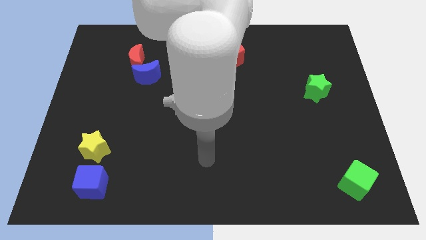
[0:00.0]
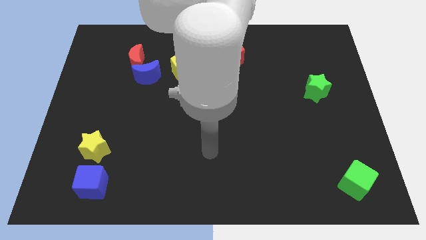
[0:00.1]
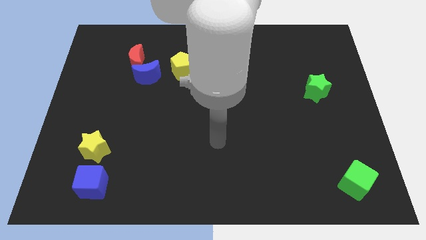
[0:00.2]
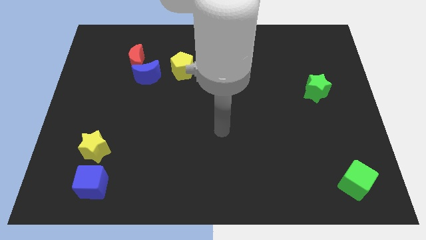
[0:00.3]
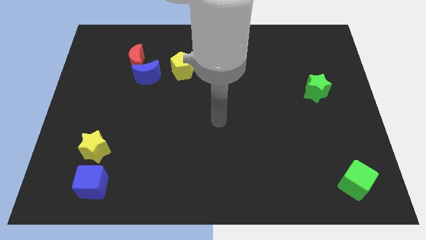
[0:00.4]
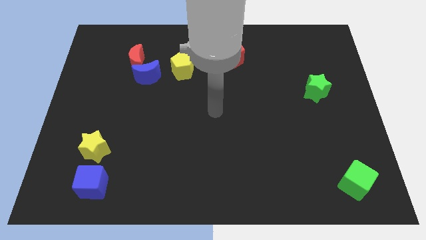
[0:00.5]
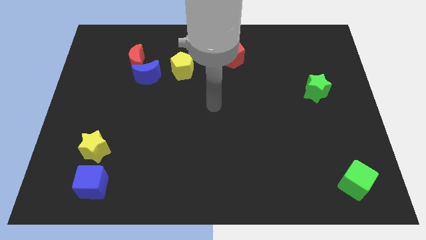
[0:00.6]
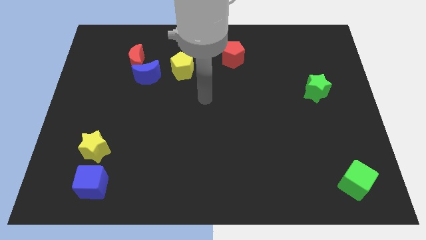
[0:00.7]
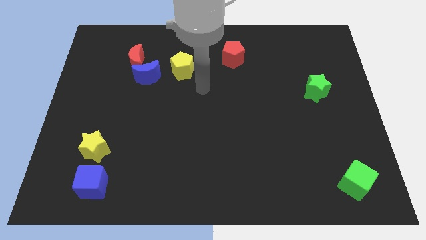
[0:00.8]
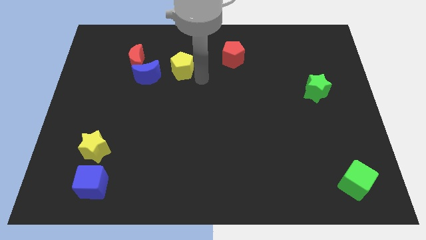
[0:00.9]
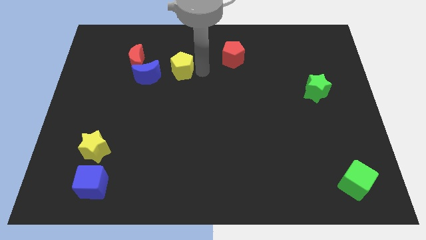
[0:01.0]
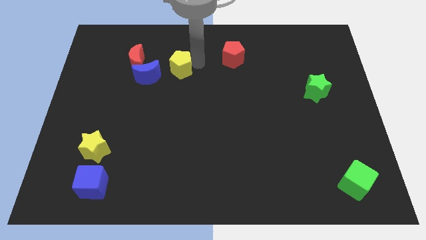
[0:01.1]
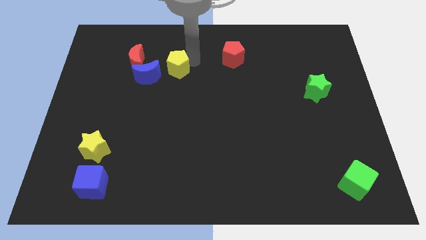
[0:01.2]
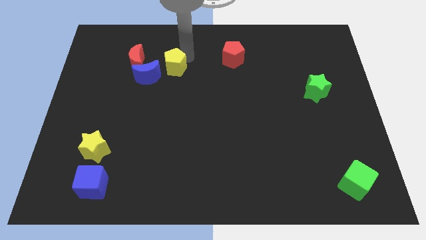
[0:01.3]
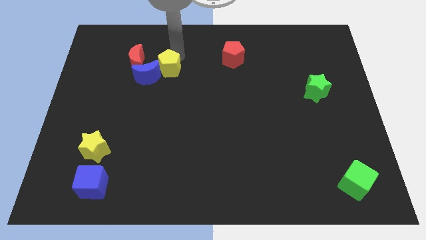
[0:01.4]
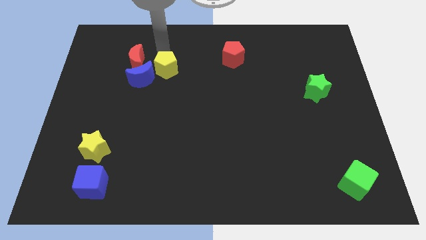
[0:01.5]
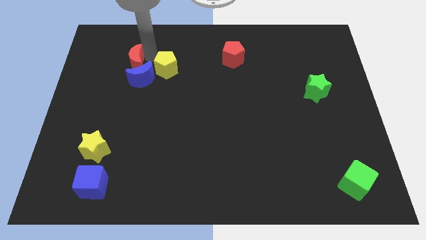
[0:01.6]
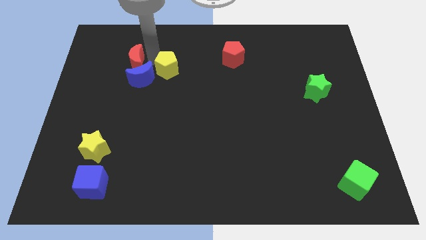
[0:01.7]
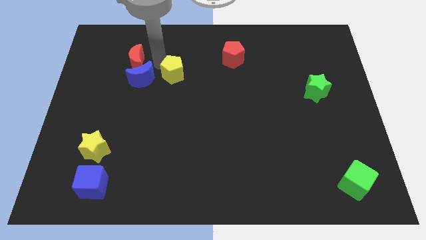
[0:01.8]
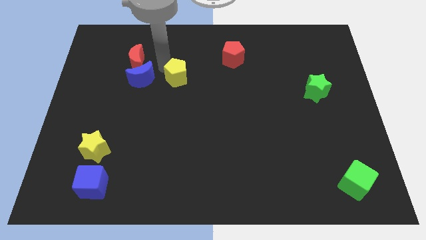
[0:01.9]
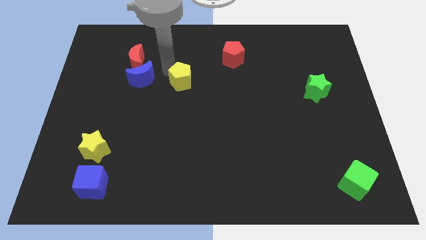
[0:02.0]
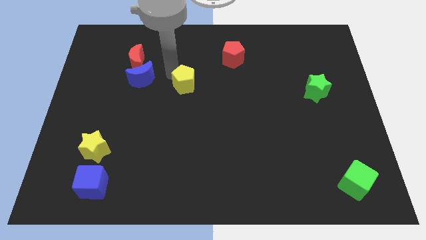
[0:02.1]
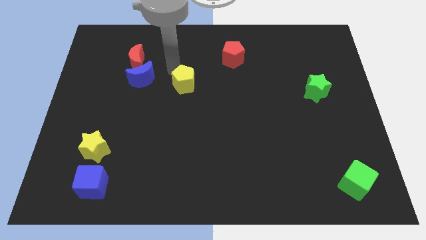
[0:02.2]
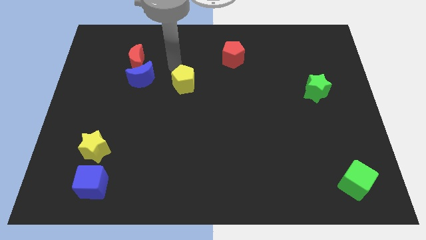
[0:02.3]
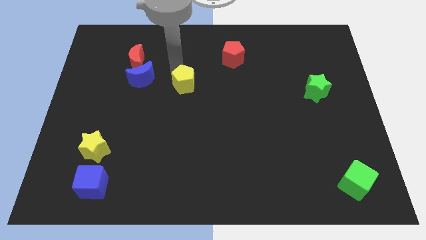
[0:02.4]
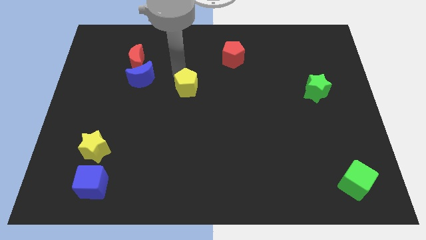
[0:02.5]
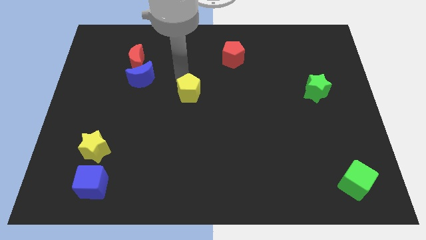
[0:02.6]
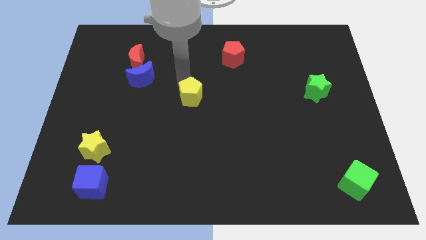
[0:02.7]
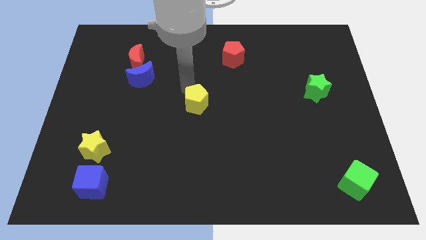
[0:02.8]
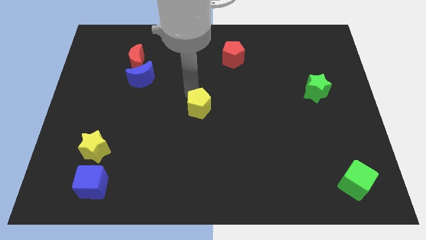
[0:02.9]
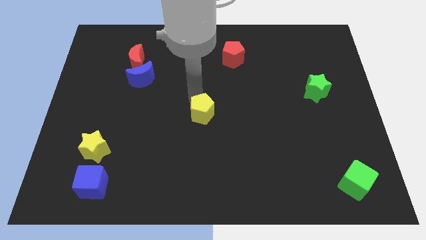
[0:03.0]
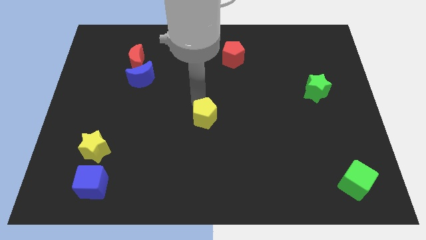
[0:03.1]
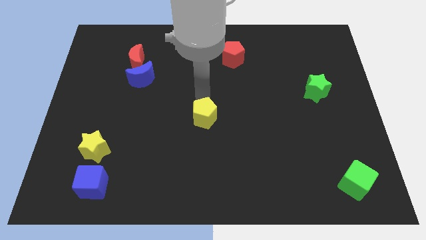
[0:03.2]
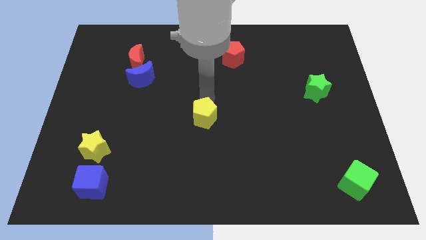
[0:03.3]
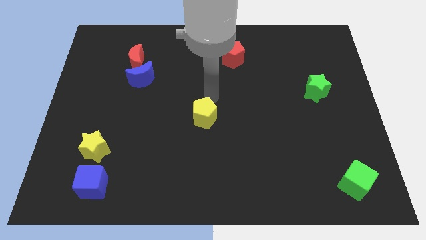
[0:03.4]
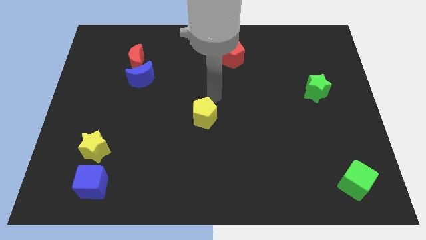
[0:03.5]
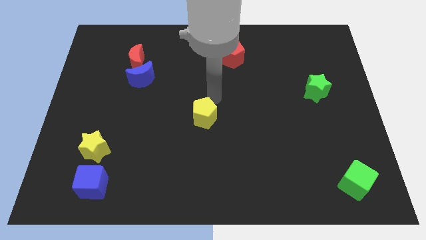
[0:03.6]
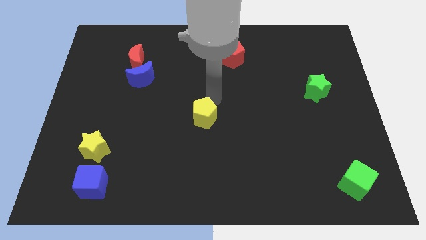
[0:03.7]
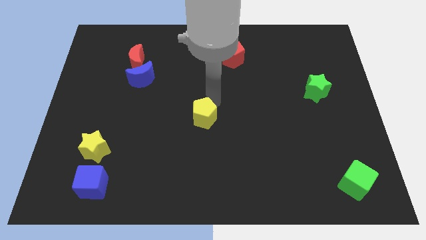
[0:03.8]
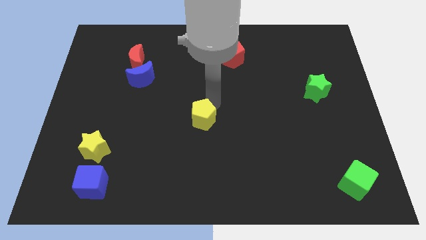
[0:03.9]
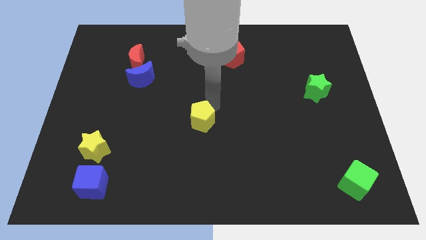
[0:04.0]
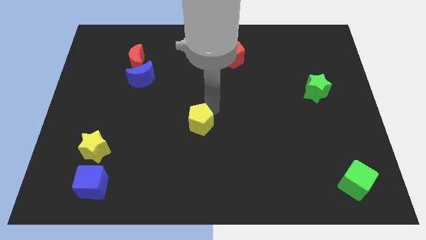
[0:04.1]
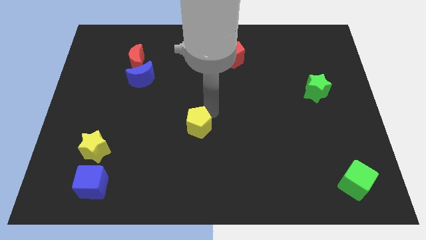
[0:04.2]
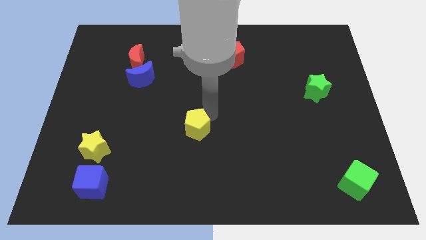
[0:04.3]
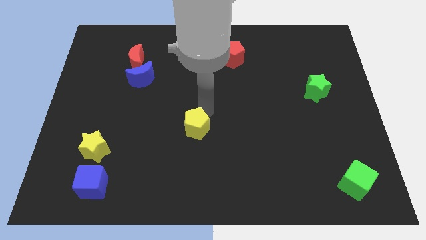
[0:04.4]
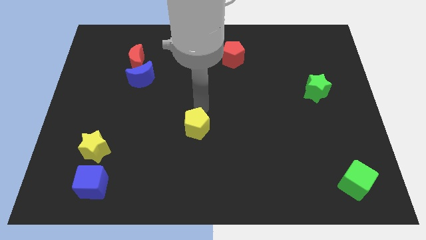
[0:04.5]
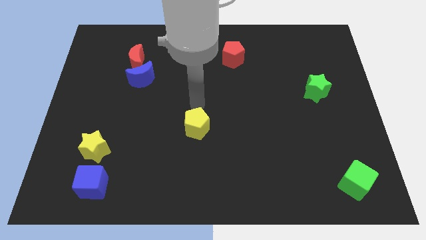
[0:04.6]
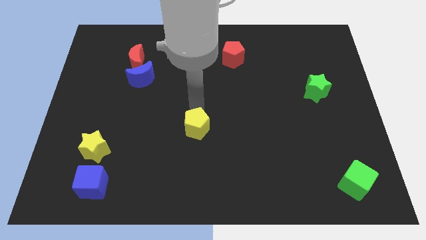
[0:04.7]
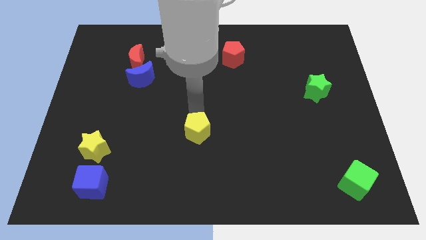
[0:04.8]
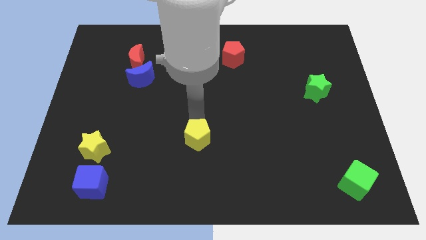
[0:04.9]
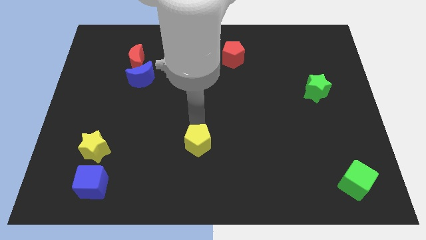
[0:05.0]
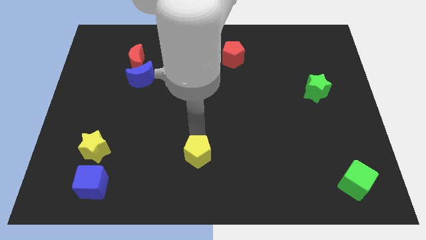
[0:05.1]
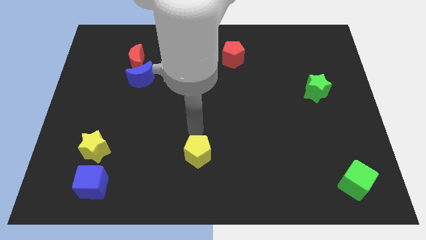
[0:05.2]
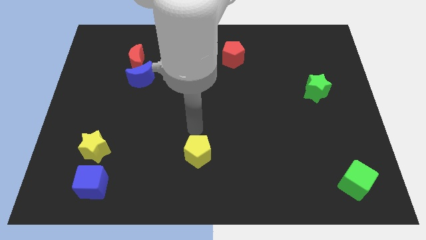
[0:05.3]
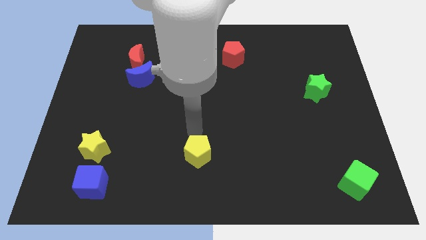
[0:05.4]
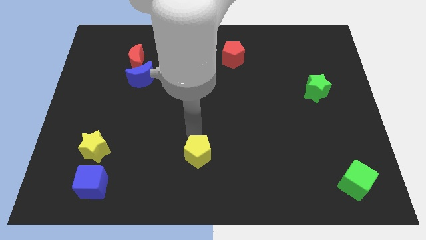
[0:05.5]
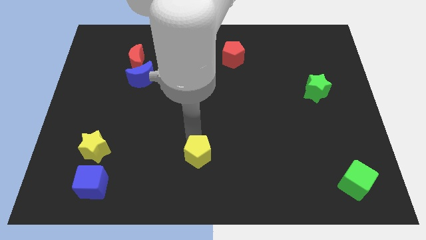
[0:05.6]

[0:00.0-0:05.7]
move the yellow pentagon to the bottom side

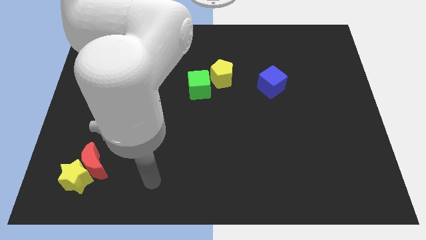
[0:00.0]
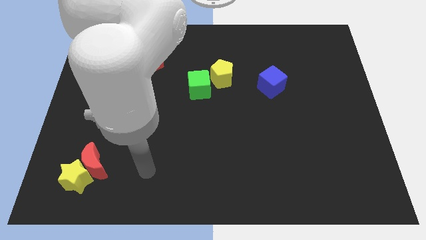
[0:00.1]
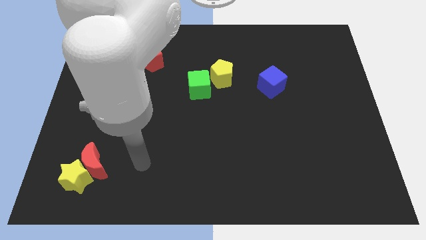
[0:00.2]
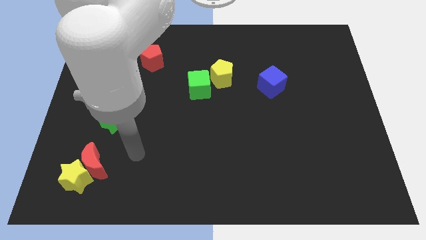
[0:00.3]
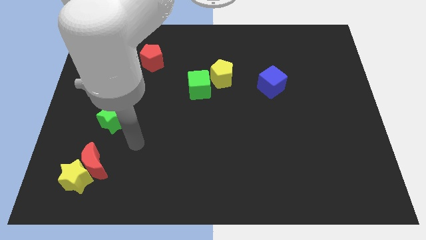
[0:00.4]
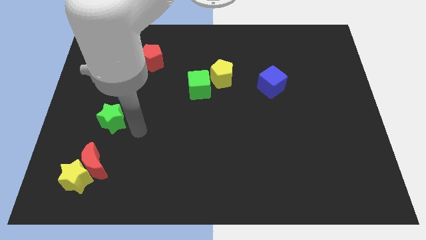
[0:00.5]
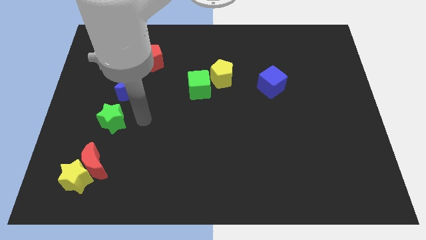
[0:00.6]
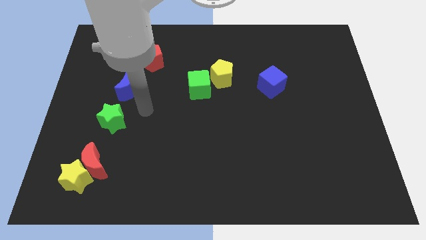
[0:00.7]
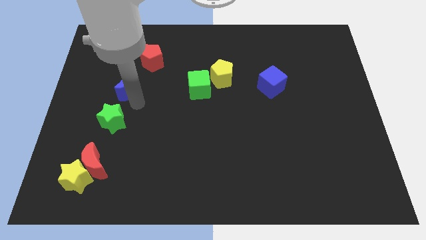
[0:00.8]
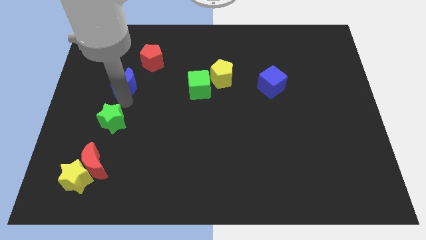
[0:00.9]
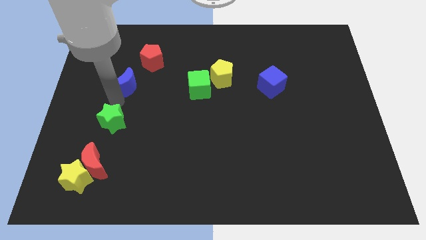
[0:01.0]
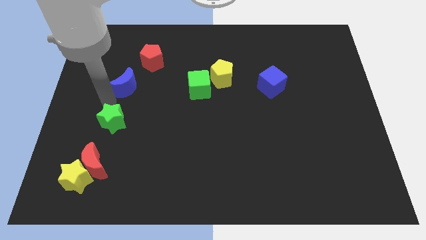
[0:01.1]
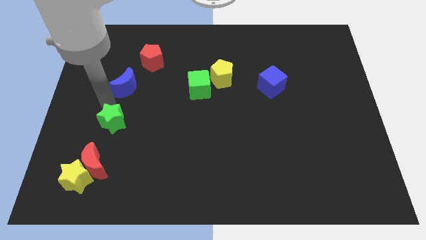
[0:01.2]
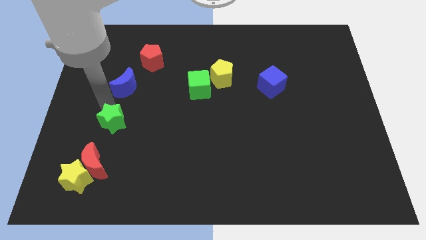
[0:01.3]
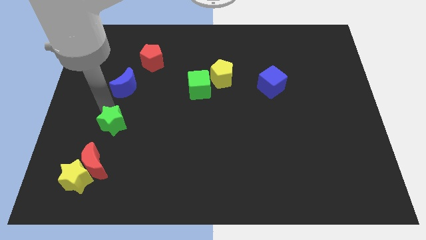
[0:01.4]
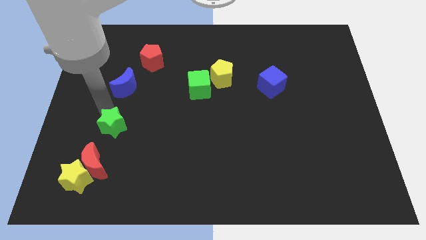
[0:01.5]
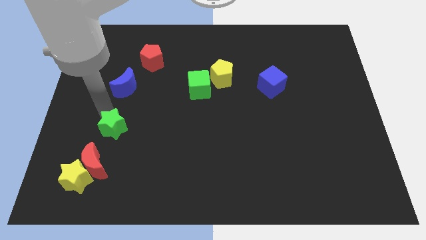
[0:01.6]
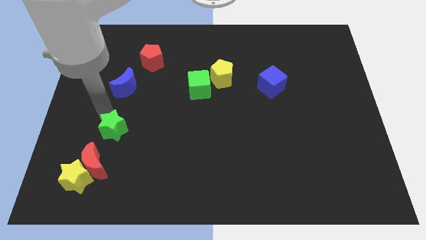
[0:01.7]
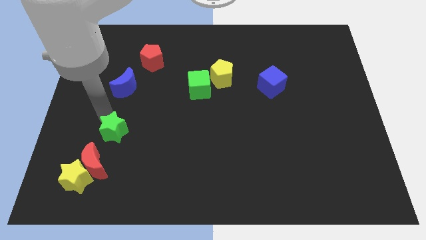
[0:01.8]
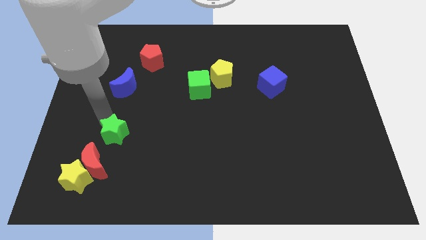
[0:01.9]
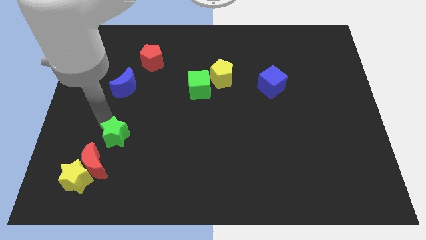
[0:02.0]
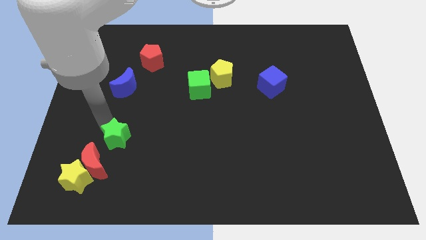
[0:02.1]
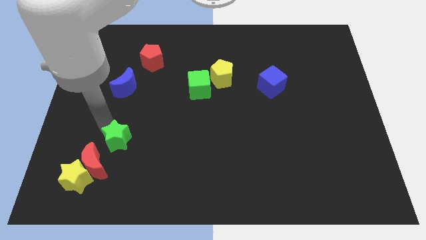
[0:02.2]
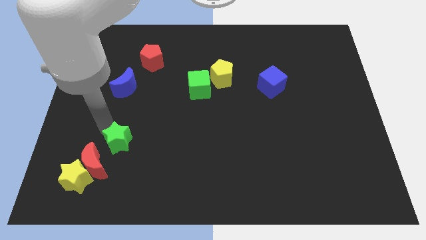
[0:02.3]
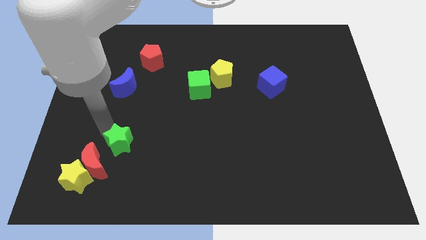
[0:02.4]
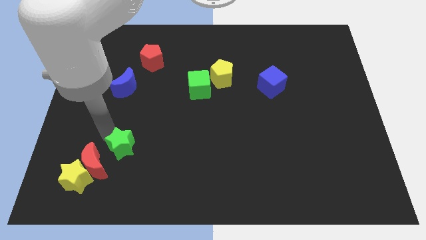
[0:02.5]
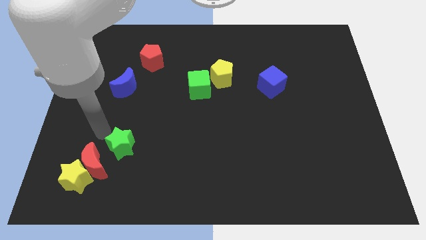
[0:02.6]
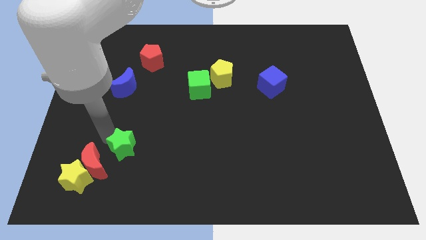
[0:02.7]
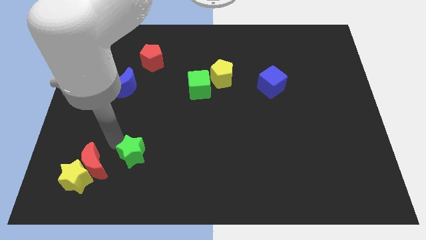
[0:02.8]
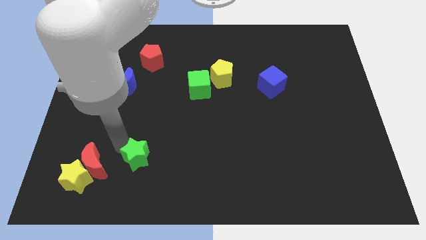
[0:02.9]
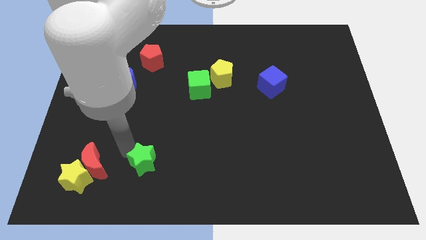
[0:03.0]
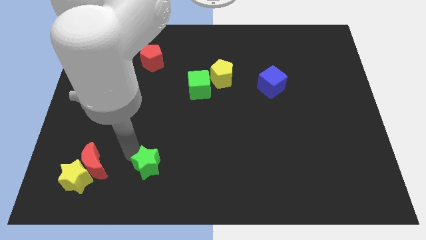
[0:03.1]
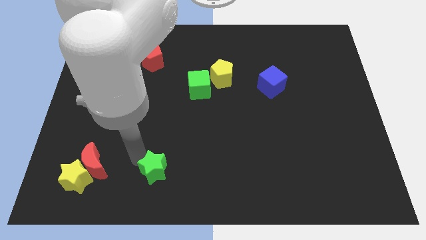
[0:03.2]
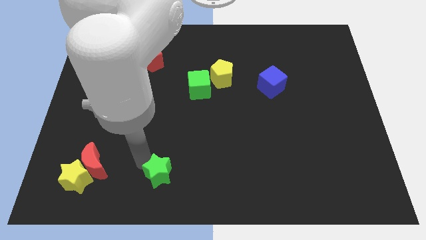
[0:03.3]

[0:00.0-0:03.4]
move the green star to the bottom
